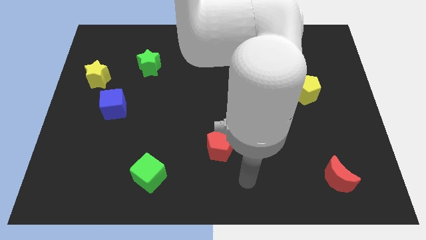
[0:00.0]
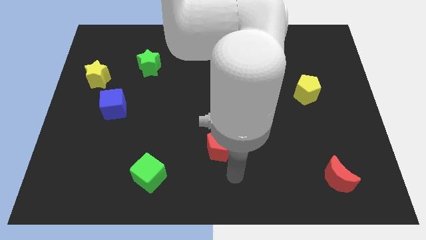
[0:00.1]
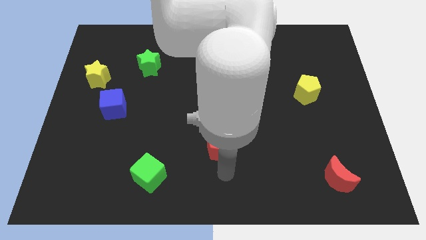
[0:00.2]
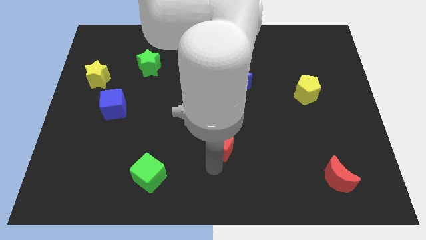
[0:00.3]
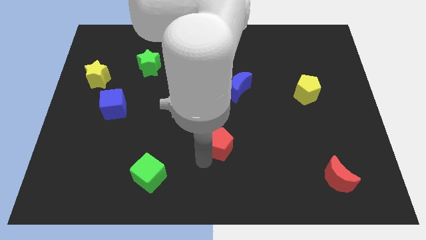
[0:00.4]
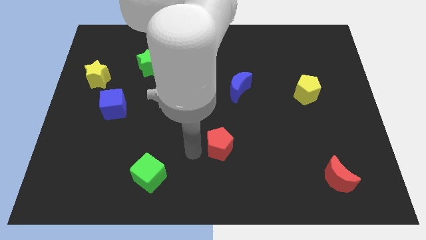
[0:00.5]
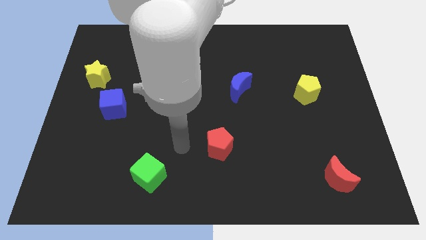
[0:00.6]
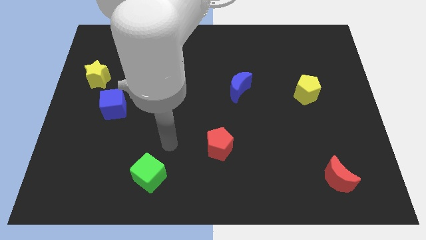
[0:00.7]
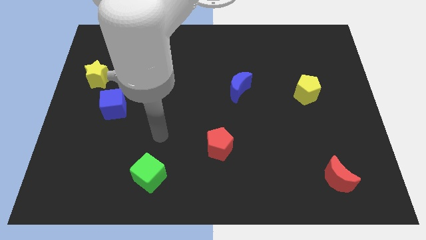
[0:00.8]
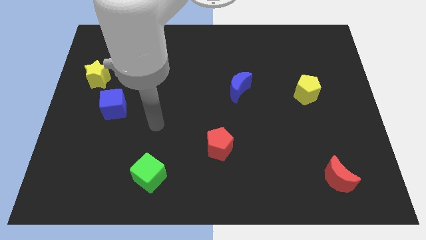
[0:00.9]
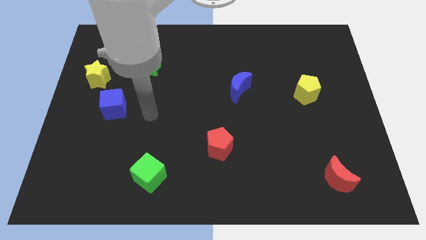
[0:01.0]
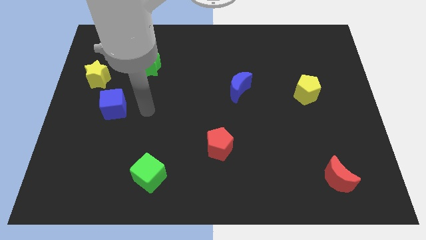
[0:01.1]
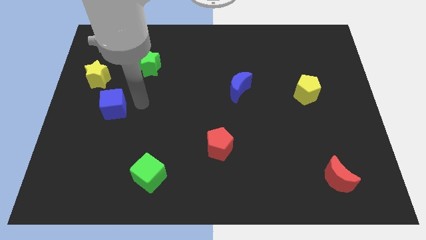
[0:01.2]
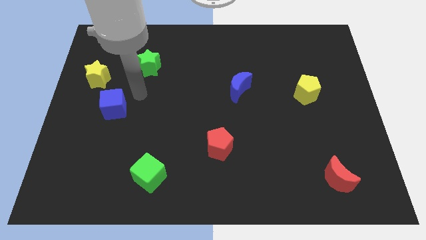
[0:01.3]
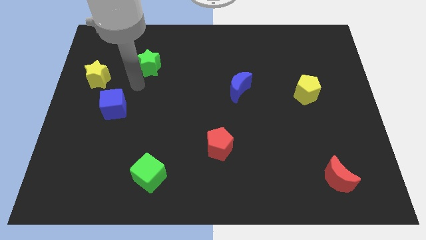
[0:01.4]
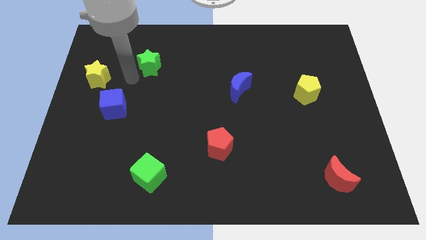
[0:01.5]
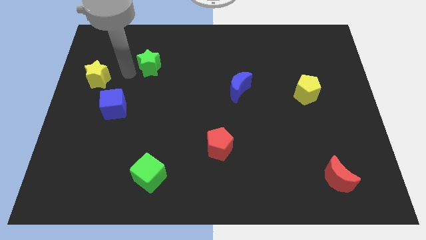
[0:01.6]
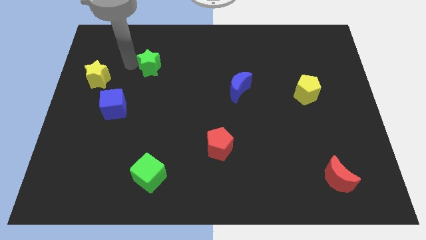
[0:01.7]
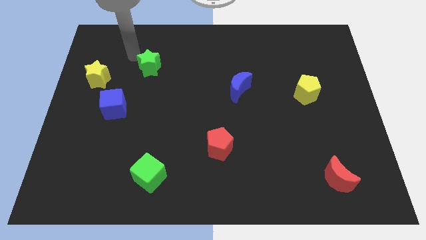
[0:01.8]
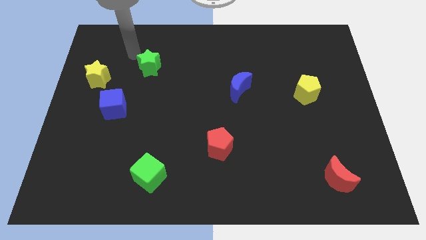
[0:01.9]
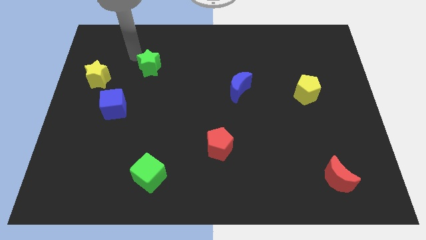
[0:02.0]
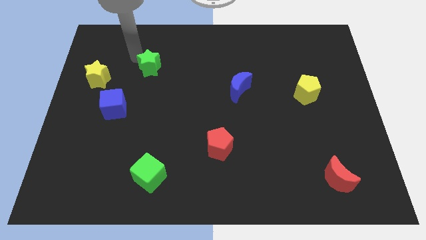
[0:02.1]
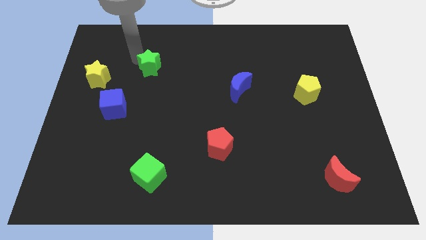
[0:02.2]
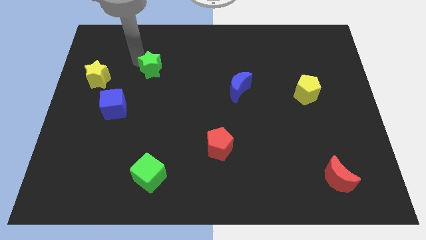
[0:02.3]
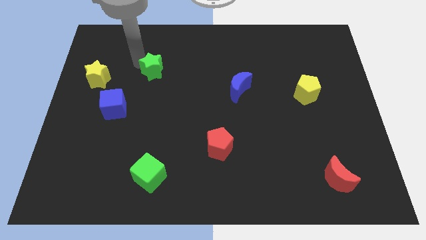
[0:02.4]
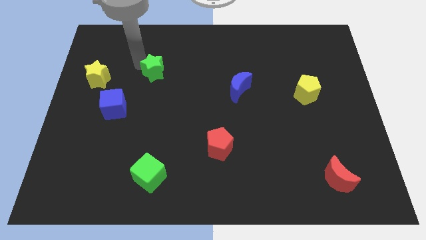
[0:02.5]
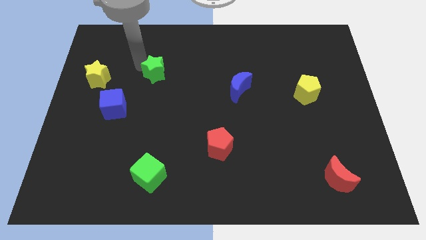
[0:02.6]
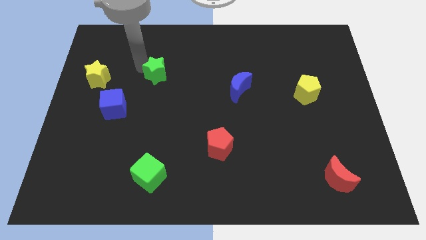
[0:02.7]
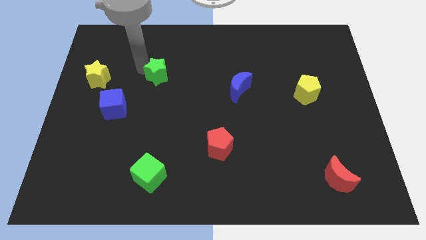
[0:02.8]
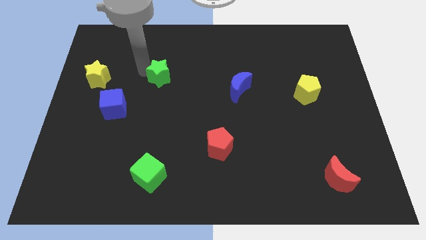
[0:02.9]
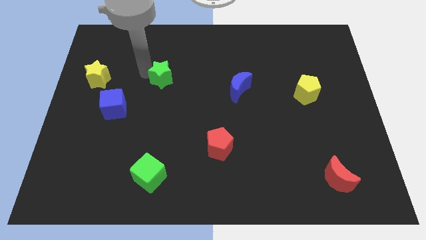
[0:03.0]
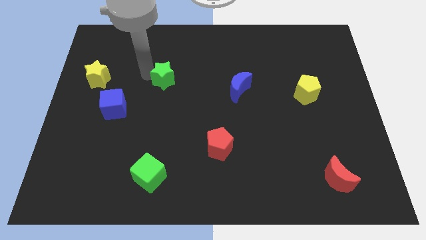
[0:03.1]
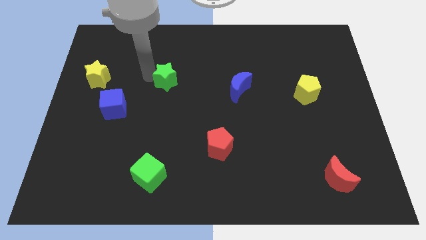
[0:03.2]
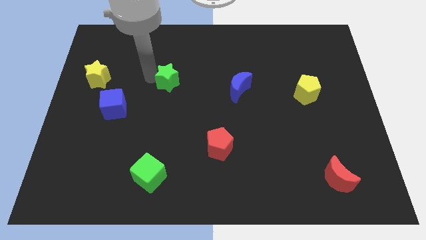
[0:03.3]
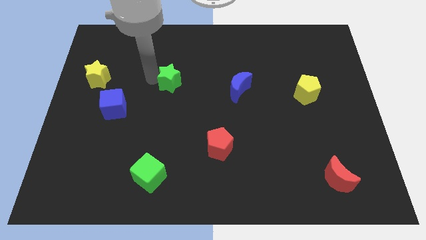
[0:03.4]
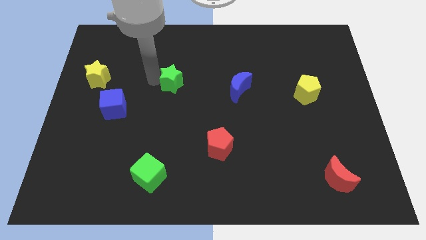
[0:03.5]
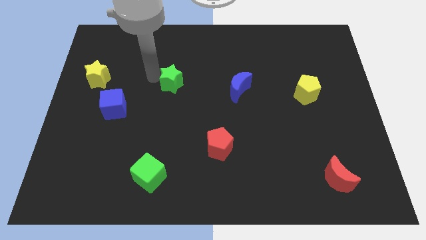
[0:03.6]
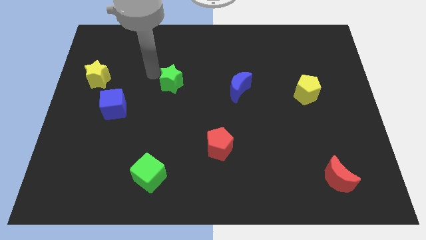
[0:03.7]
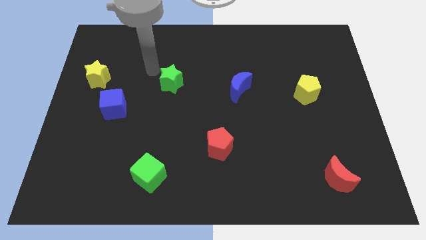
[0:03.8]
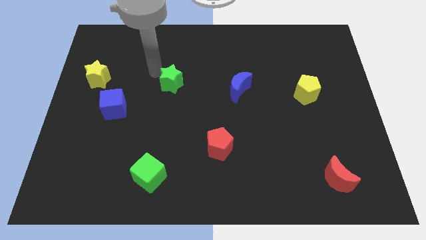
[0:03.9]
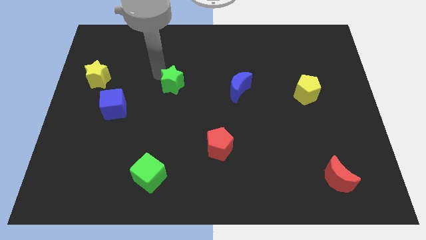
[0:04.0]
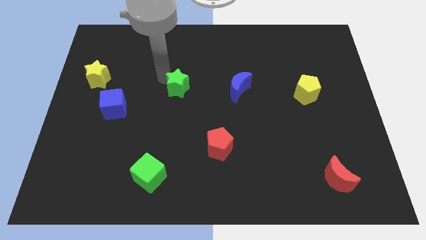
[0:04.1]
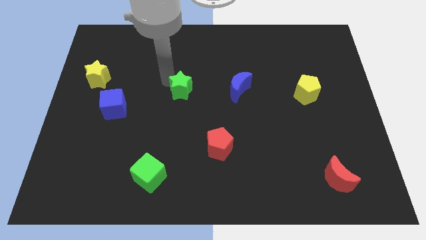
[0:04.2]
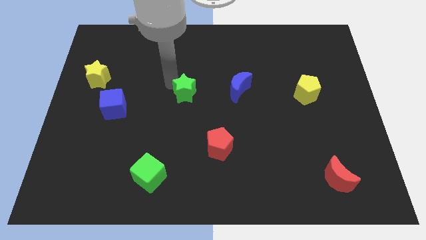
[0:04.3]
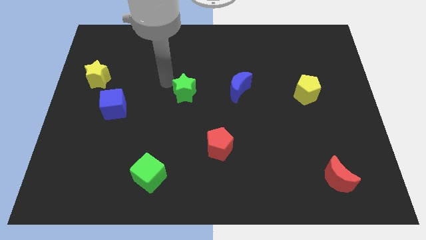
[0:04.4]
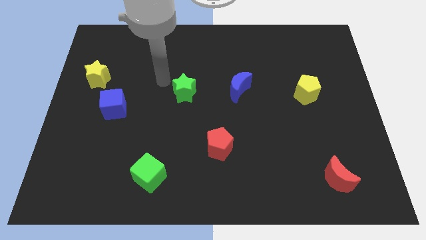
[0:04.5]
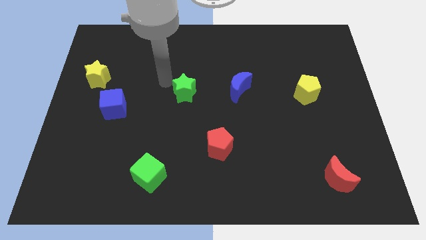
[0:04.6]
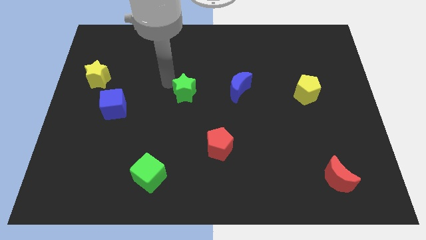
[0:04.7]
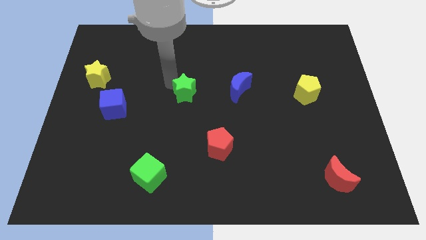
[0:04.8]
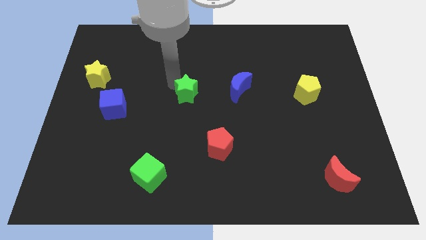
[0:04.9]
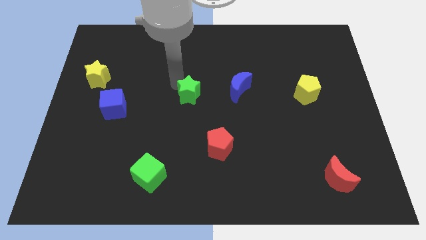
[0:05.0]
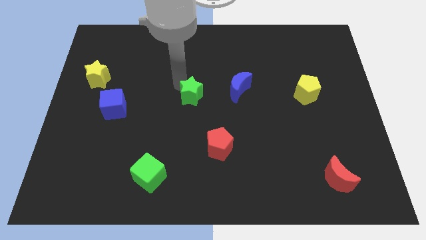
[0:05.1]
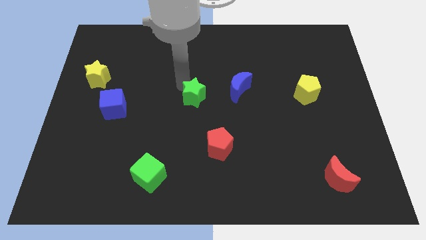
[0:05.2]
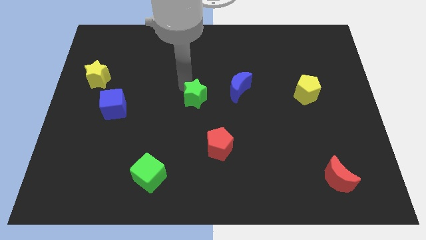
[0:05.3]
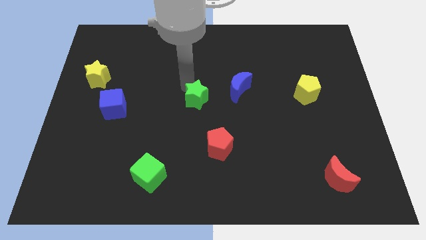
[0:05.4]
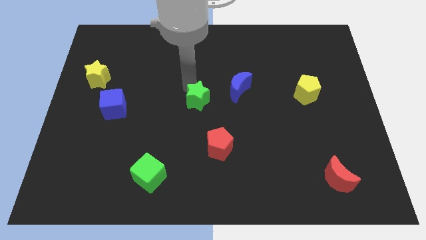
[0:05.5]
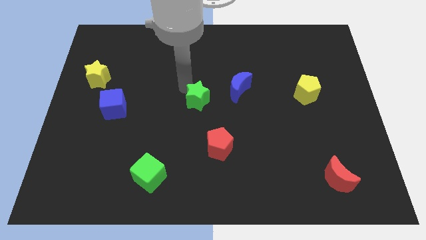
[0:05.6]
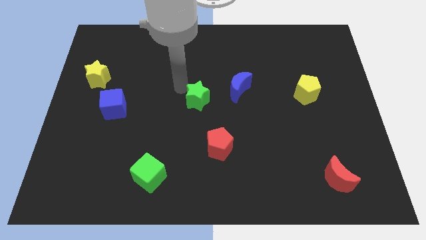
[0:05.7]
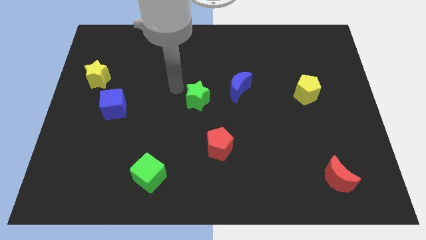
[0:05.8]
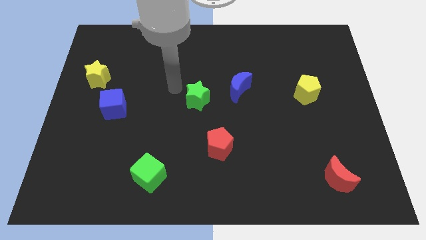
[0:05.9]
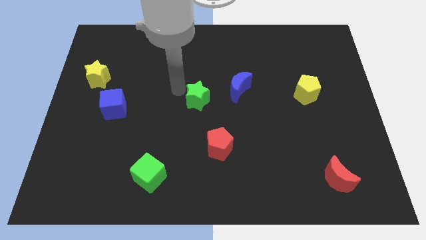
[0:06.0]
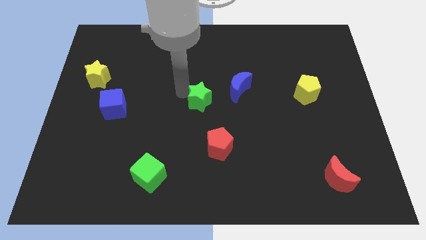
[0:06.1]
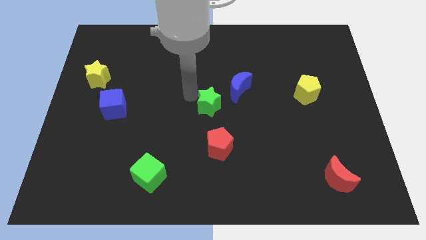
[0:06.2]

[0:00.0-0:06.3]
move the green star down and to the right diagonally

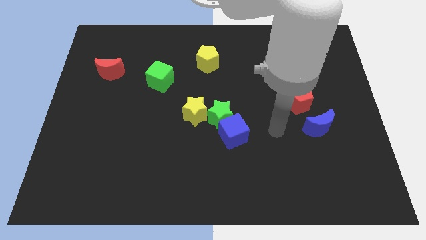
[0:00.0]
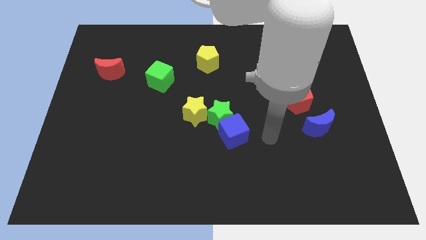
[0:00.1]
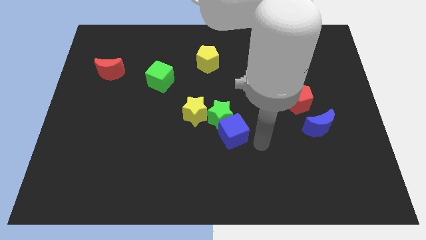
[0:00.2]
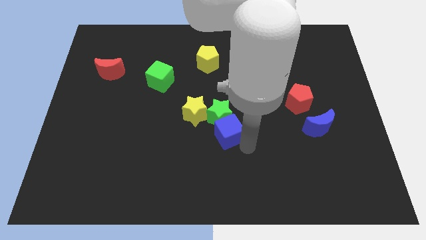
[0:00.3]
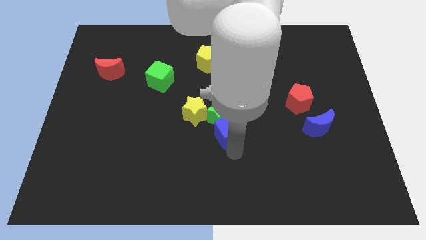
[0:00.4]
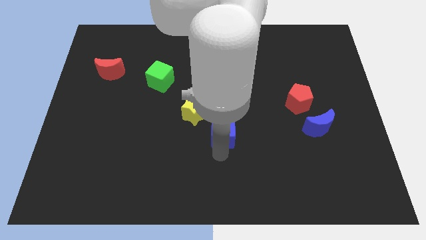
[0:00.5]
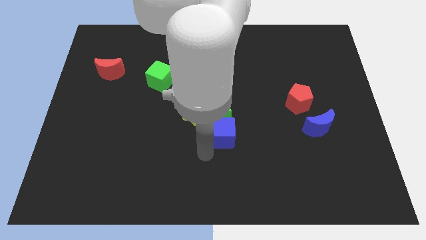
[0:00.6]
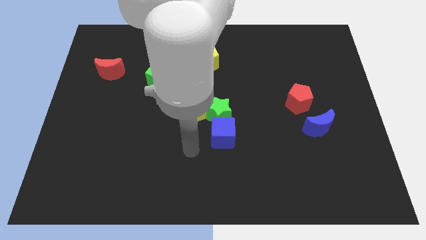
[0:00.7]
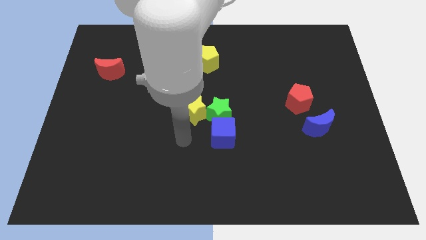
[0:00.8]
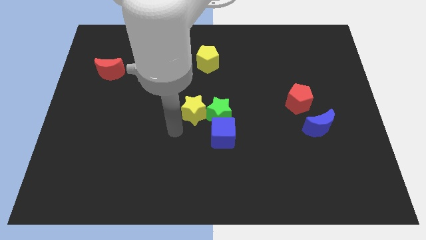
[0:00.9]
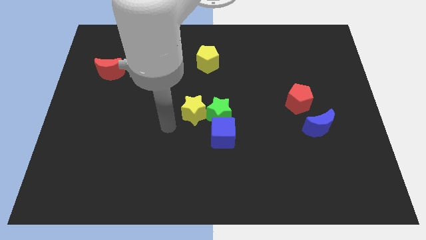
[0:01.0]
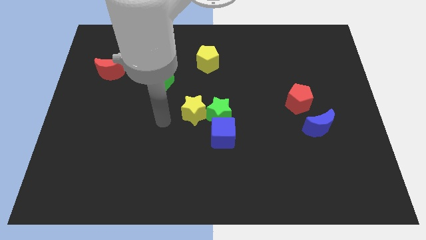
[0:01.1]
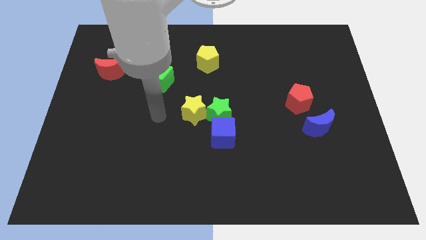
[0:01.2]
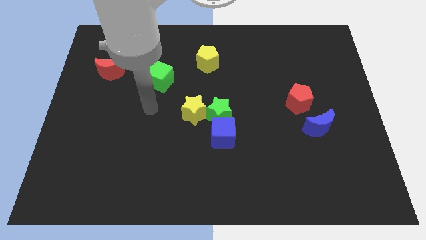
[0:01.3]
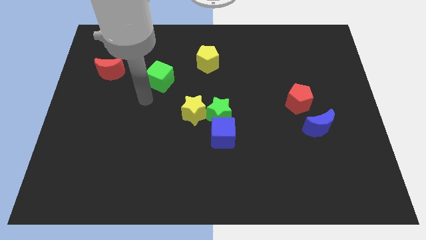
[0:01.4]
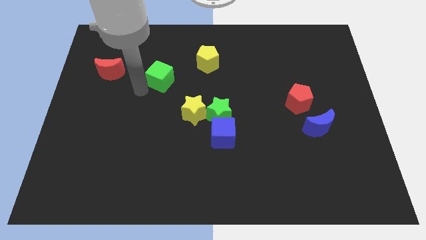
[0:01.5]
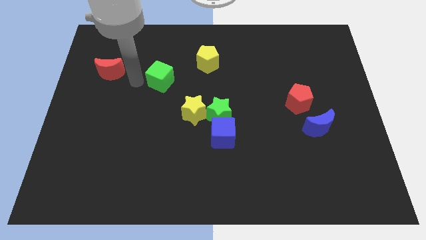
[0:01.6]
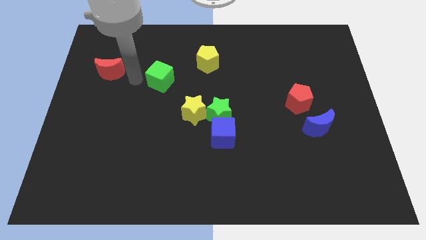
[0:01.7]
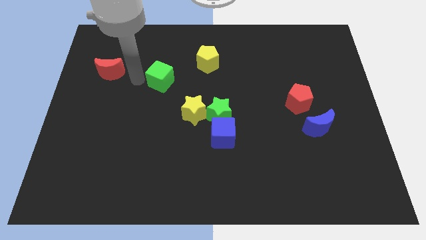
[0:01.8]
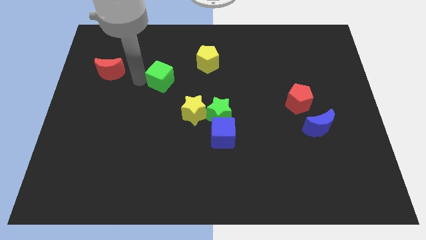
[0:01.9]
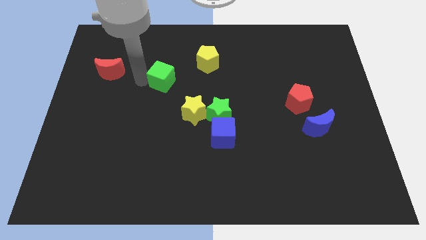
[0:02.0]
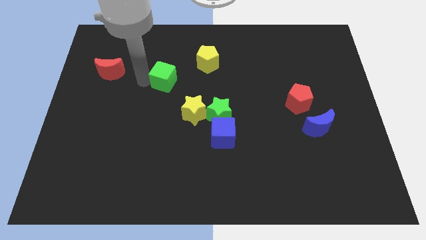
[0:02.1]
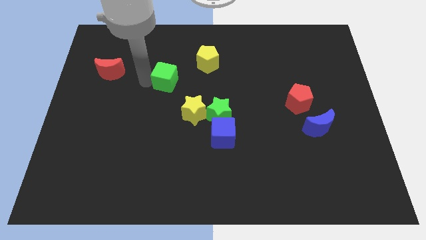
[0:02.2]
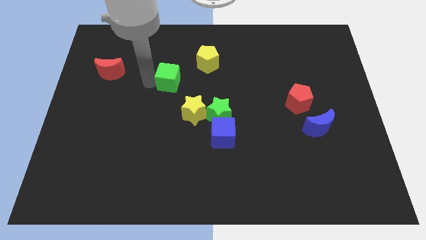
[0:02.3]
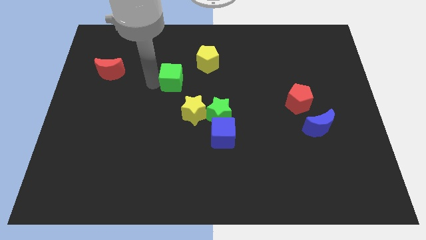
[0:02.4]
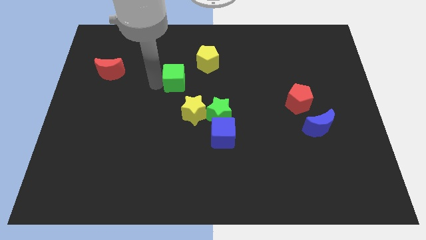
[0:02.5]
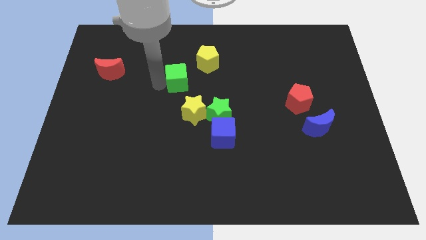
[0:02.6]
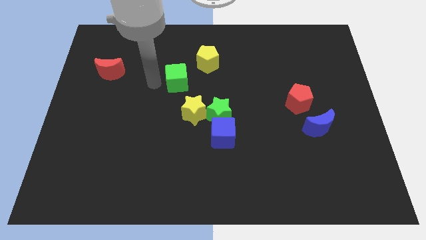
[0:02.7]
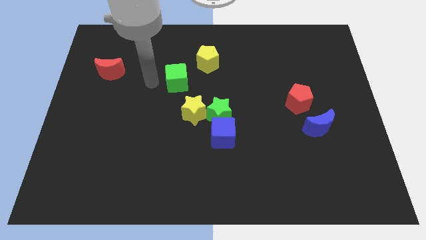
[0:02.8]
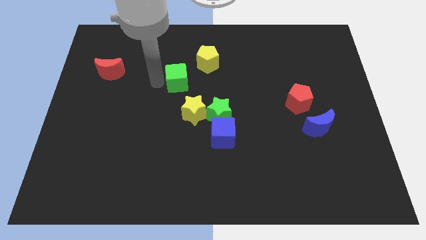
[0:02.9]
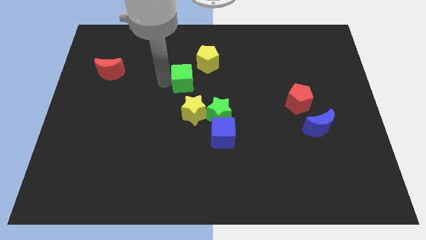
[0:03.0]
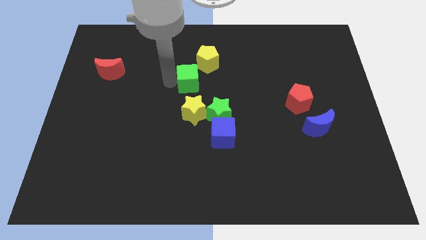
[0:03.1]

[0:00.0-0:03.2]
slide the green cube right a bit
